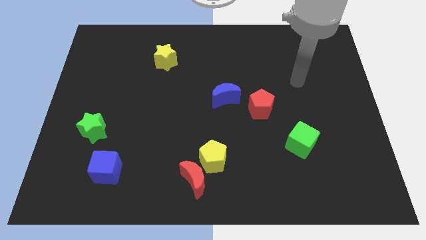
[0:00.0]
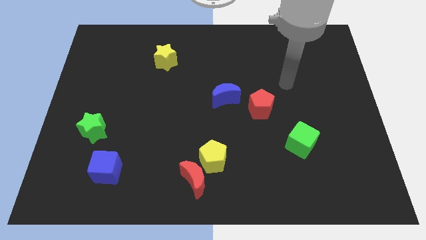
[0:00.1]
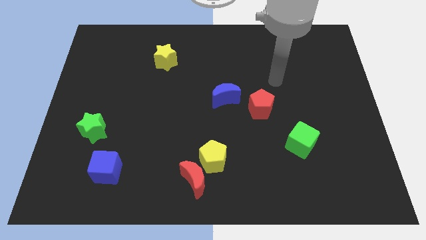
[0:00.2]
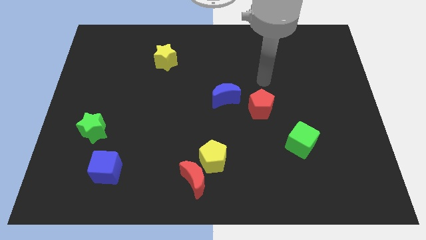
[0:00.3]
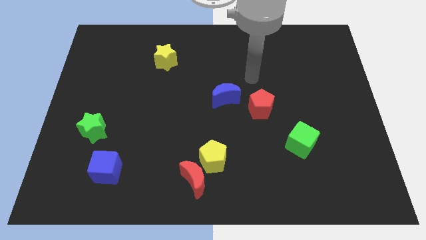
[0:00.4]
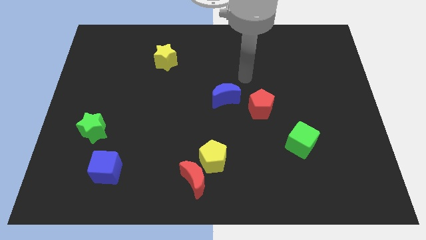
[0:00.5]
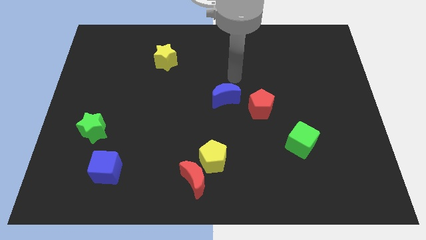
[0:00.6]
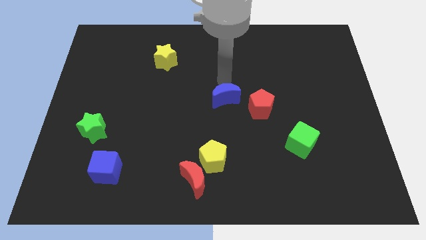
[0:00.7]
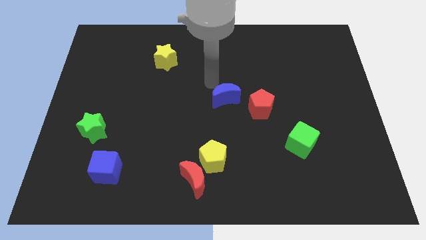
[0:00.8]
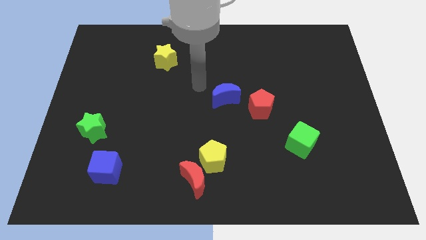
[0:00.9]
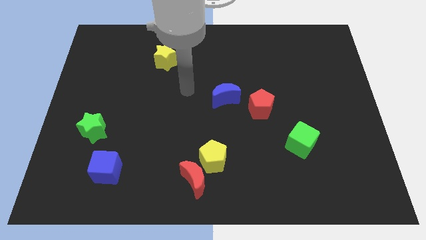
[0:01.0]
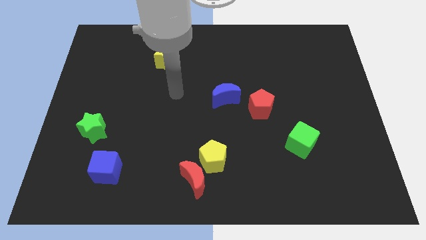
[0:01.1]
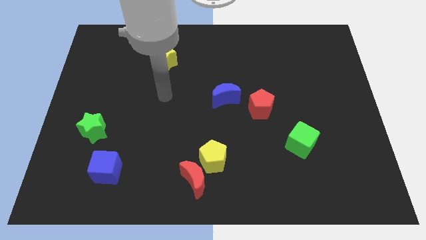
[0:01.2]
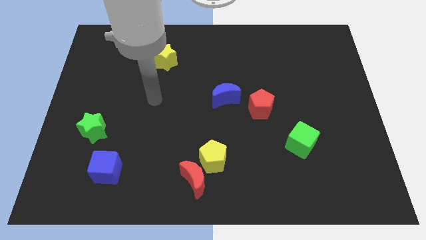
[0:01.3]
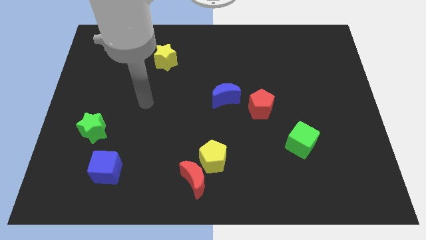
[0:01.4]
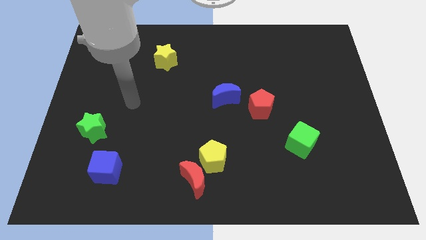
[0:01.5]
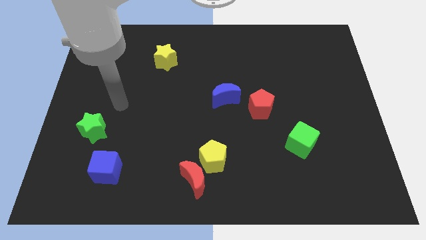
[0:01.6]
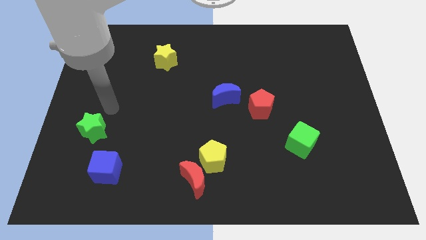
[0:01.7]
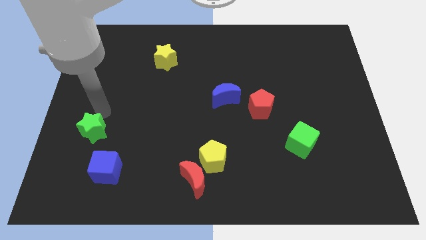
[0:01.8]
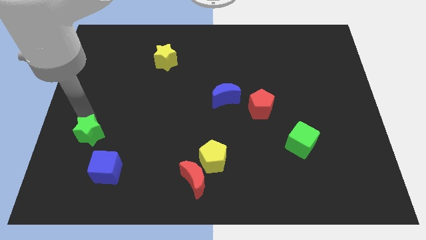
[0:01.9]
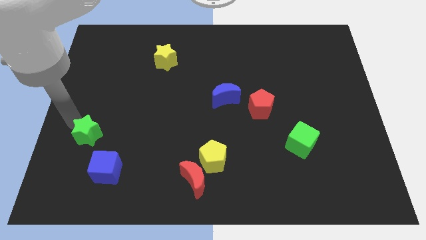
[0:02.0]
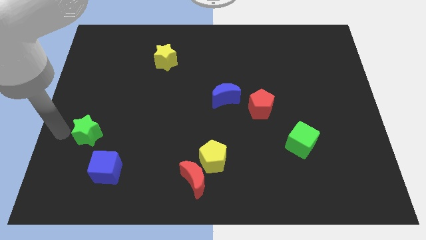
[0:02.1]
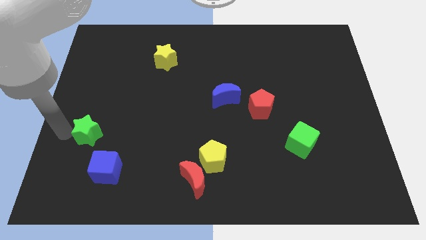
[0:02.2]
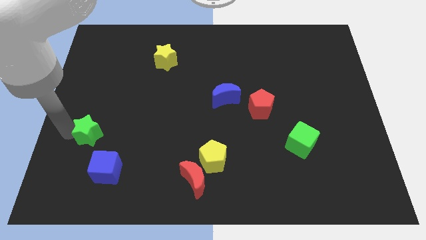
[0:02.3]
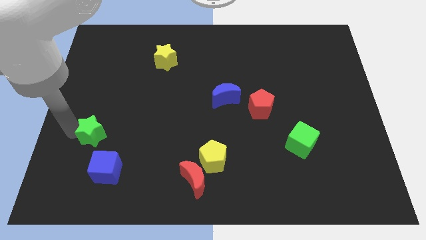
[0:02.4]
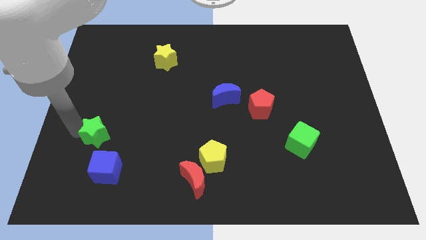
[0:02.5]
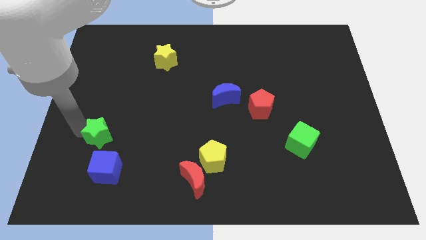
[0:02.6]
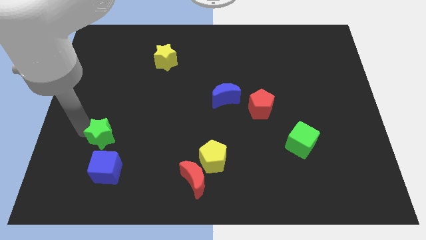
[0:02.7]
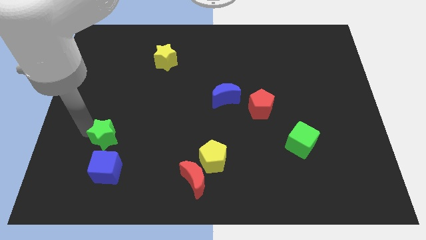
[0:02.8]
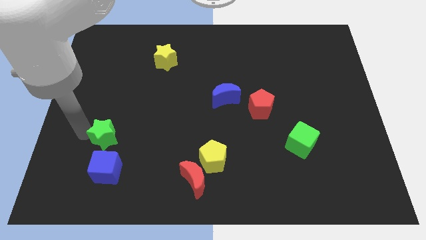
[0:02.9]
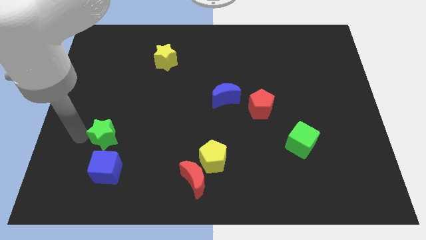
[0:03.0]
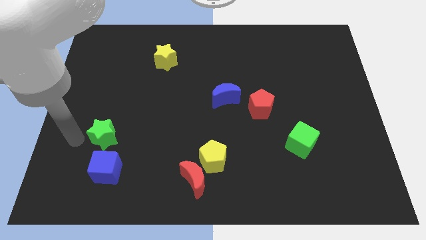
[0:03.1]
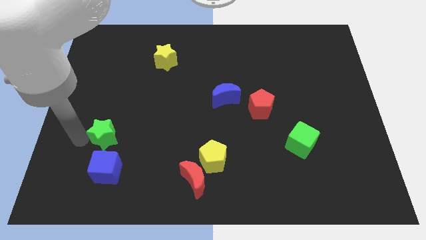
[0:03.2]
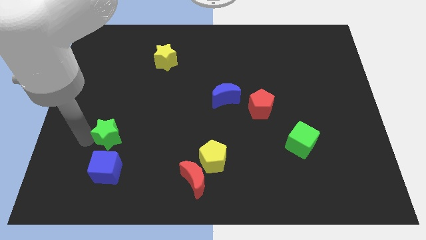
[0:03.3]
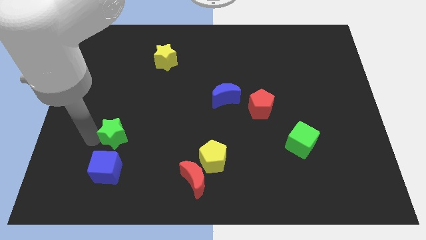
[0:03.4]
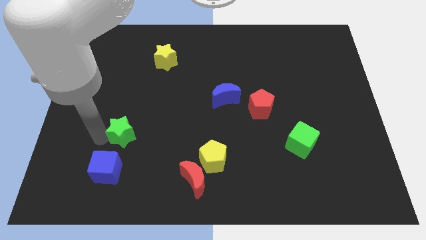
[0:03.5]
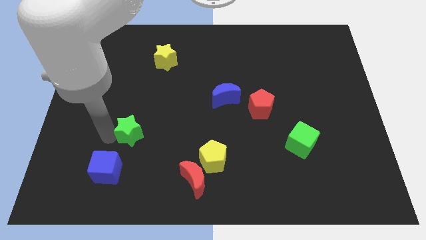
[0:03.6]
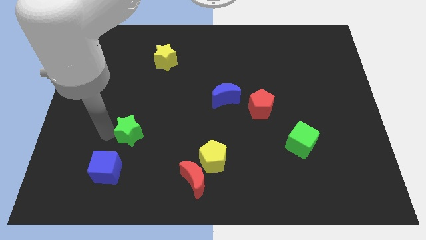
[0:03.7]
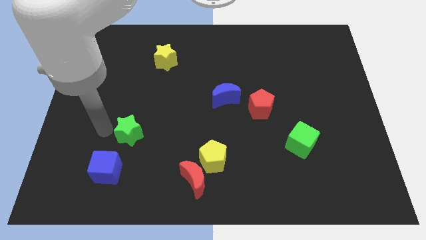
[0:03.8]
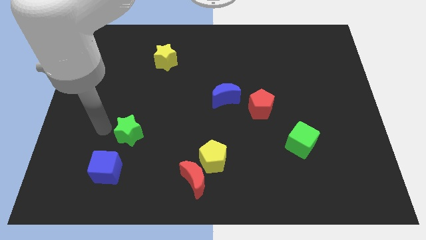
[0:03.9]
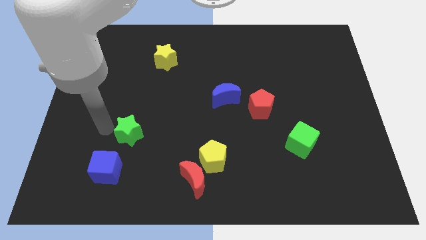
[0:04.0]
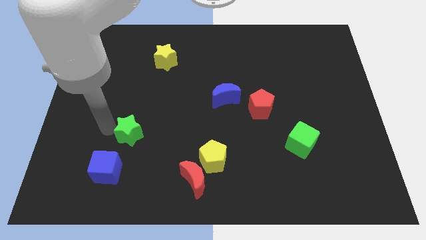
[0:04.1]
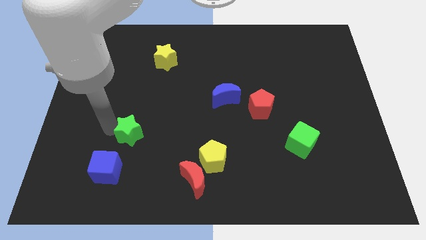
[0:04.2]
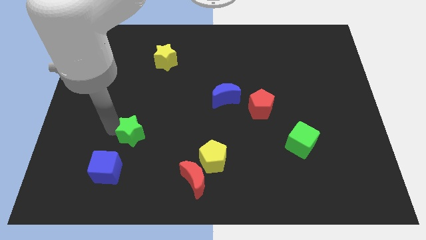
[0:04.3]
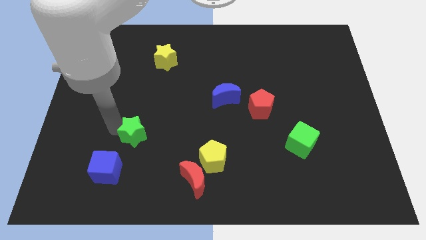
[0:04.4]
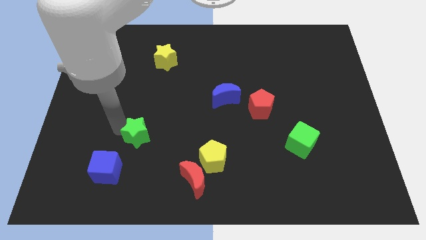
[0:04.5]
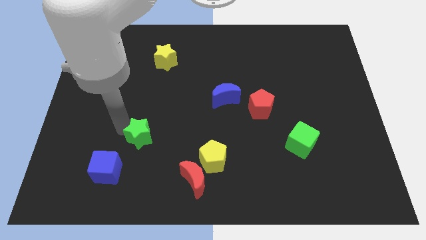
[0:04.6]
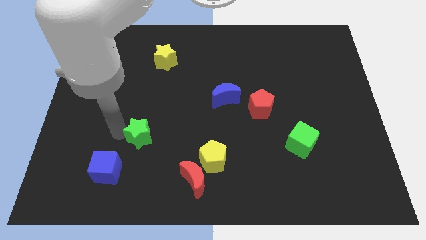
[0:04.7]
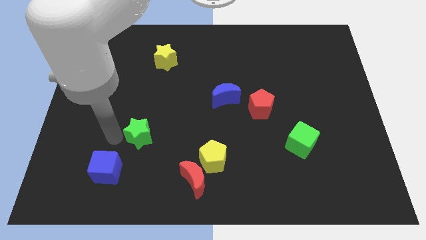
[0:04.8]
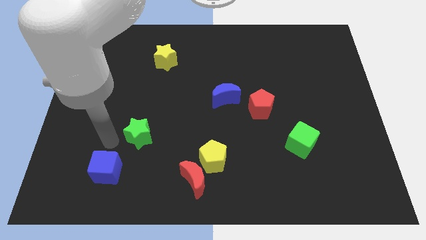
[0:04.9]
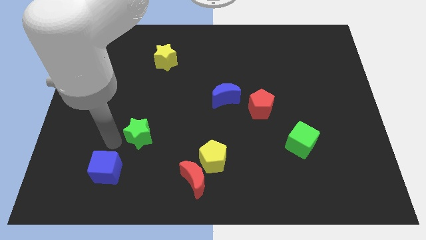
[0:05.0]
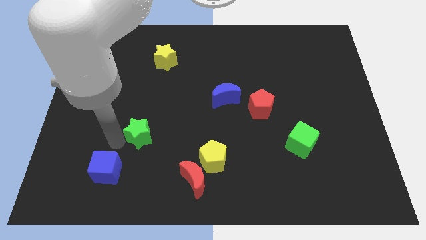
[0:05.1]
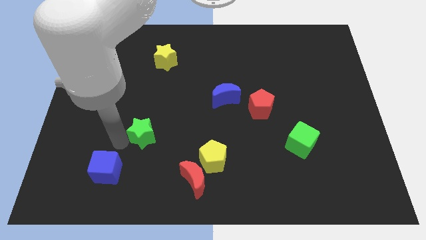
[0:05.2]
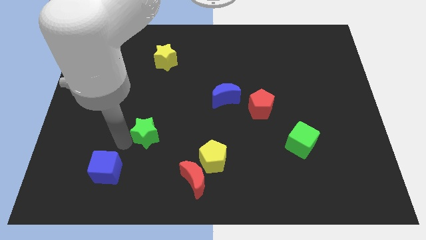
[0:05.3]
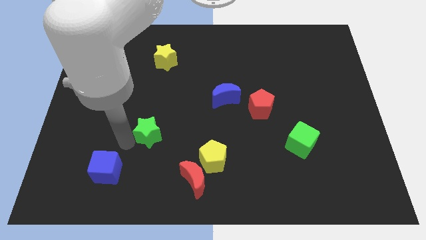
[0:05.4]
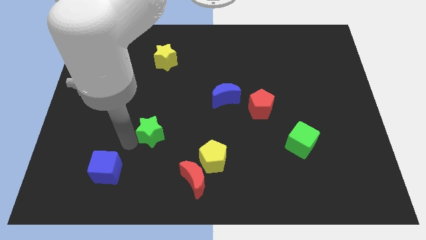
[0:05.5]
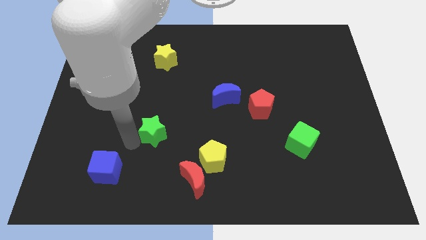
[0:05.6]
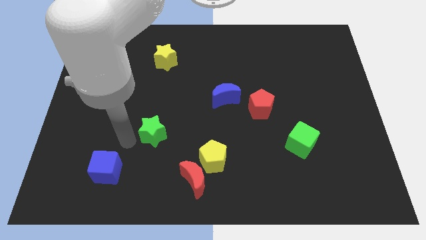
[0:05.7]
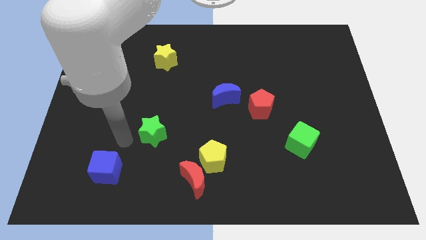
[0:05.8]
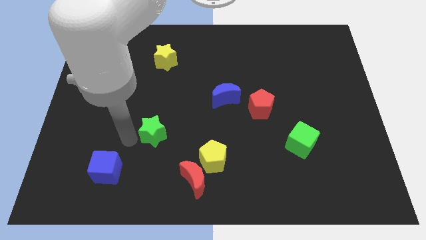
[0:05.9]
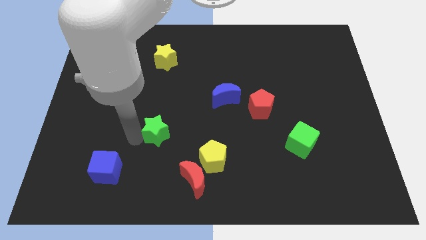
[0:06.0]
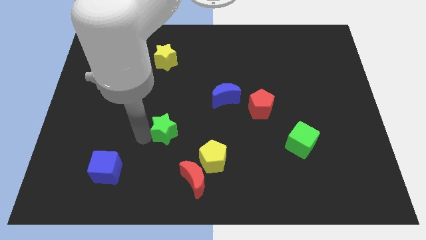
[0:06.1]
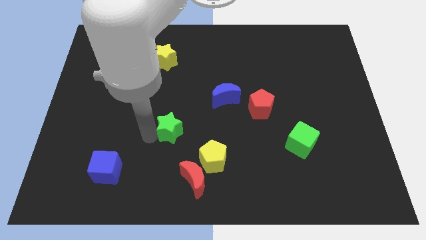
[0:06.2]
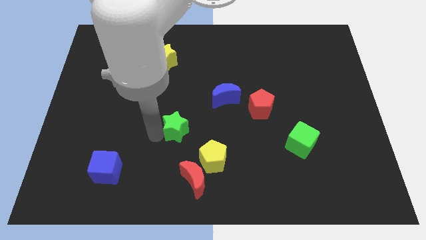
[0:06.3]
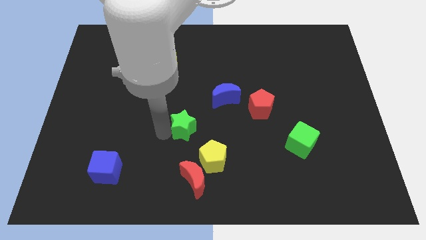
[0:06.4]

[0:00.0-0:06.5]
push the green star to the right

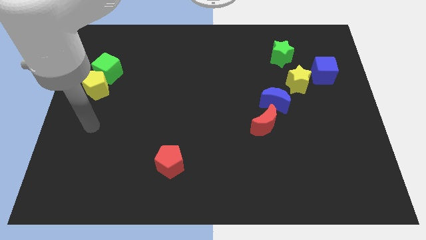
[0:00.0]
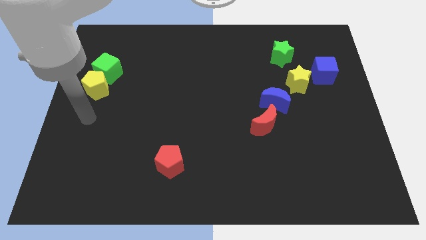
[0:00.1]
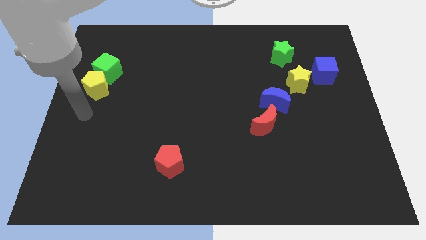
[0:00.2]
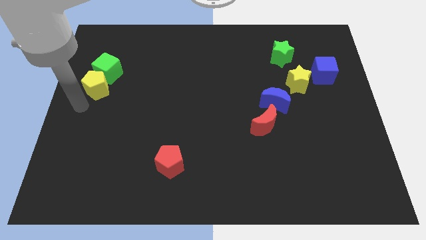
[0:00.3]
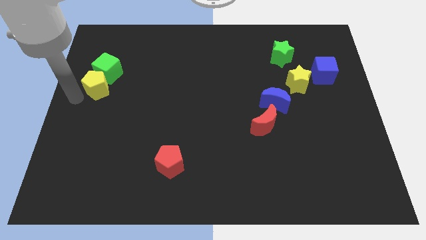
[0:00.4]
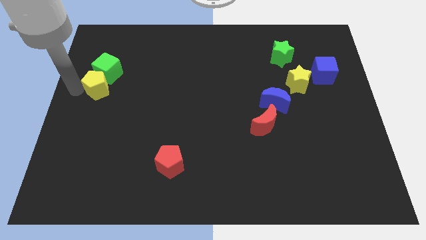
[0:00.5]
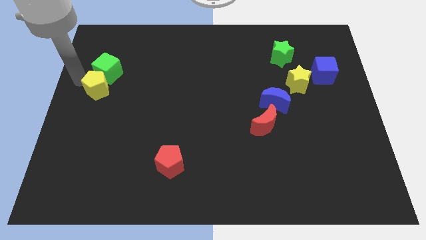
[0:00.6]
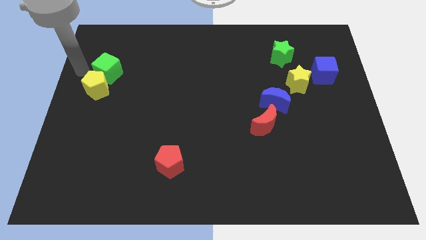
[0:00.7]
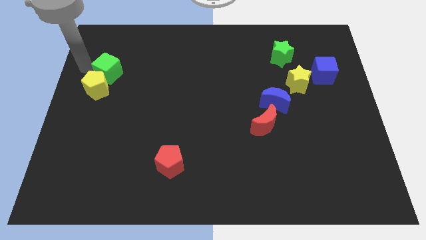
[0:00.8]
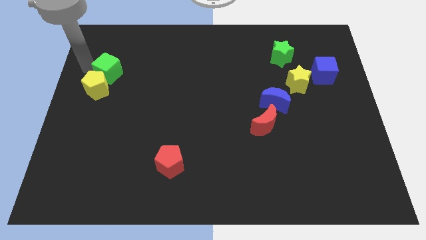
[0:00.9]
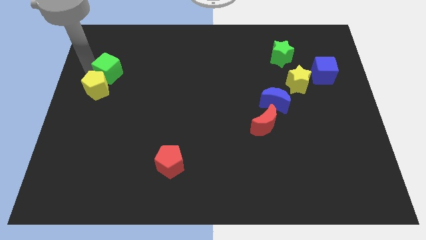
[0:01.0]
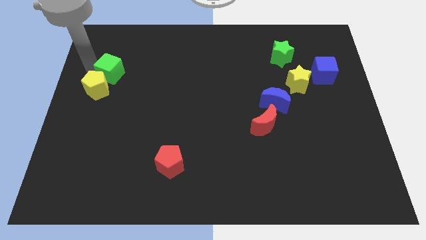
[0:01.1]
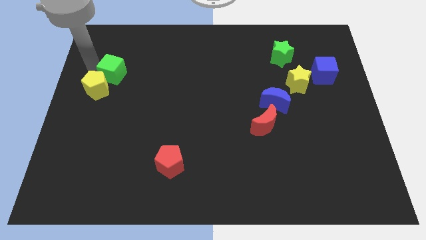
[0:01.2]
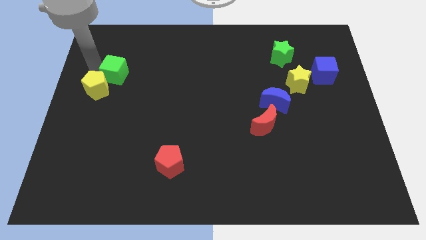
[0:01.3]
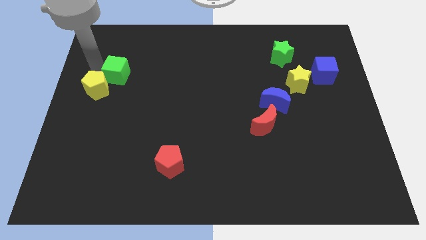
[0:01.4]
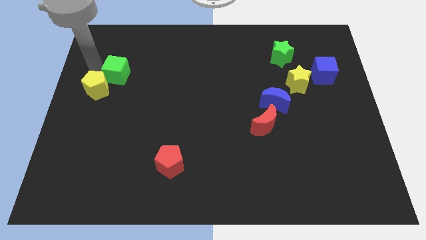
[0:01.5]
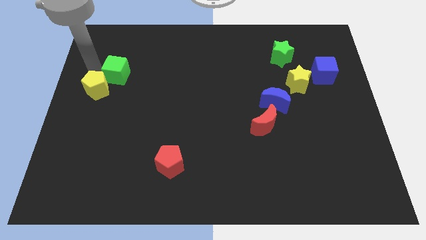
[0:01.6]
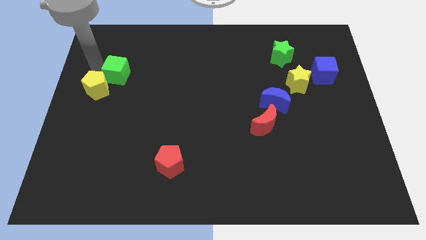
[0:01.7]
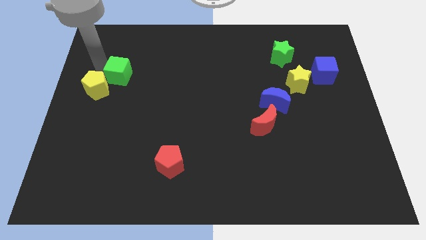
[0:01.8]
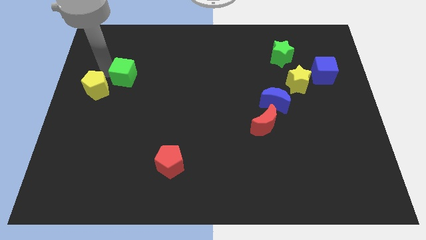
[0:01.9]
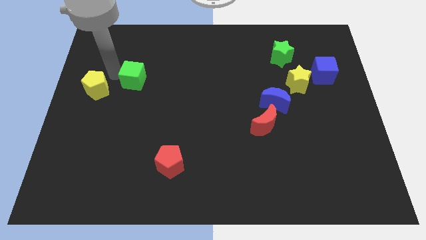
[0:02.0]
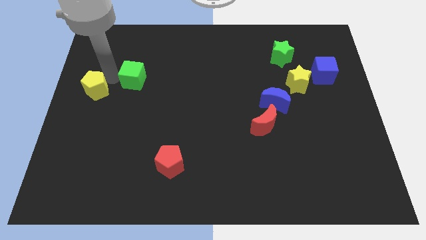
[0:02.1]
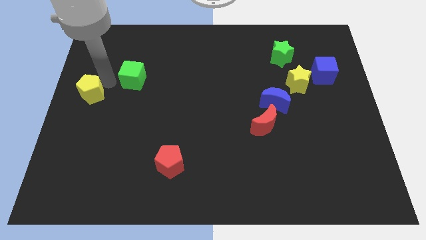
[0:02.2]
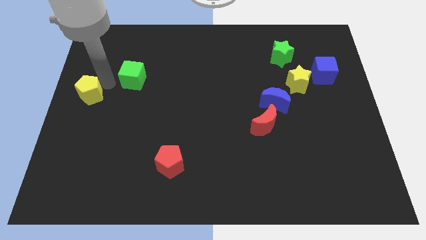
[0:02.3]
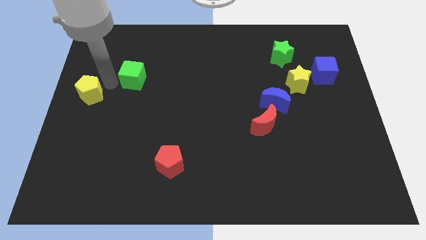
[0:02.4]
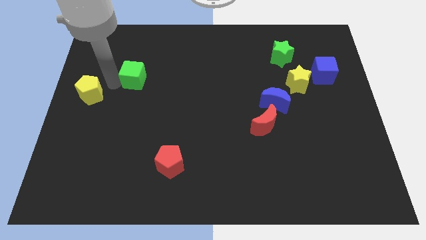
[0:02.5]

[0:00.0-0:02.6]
push the green cube to the right somewhat
